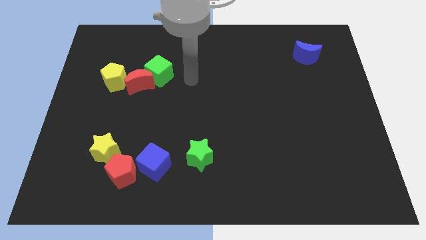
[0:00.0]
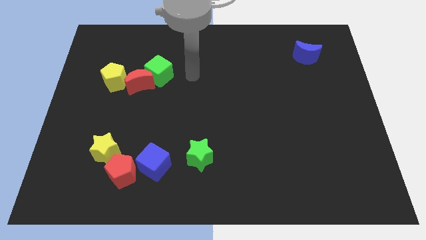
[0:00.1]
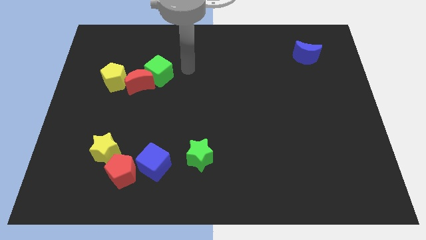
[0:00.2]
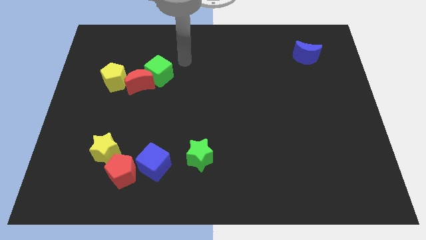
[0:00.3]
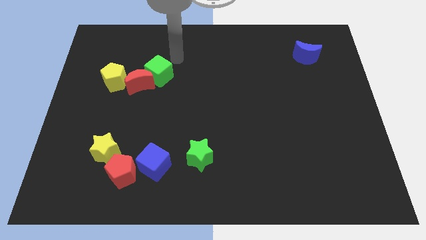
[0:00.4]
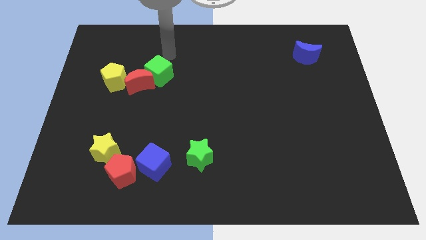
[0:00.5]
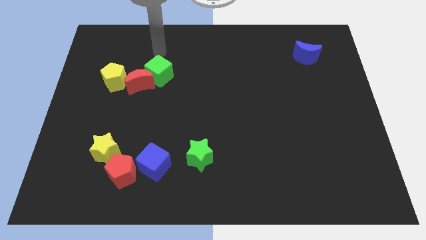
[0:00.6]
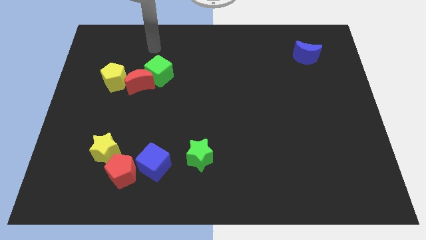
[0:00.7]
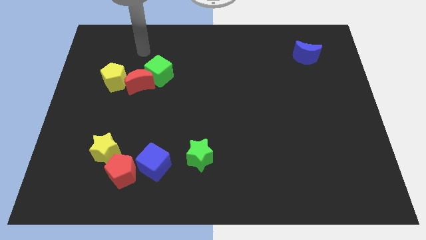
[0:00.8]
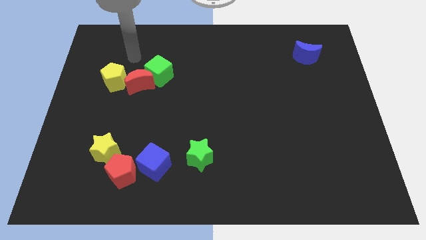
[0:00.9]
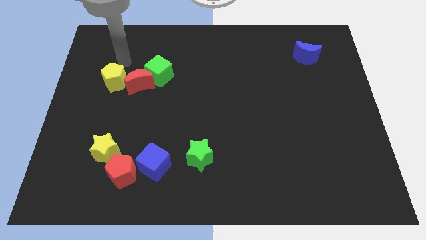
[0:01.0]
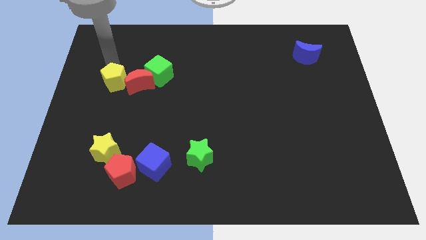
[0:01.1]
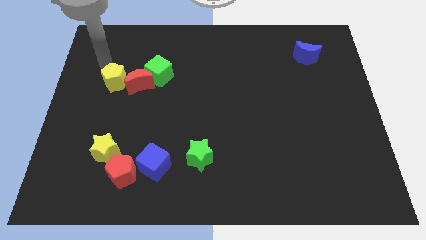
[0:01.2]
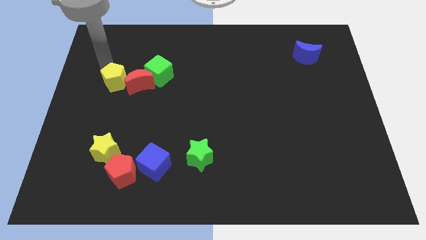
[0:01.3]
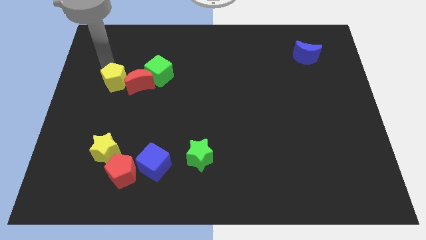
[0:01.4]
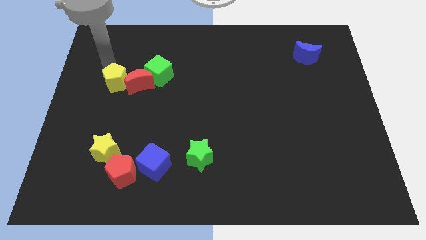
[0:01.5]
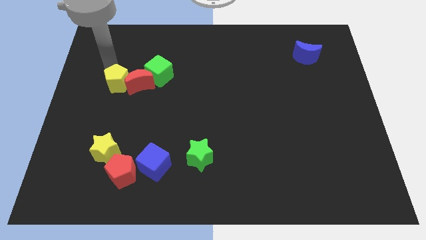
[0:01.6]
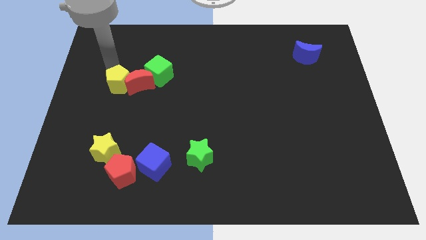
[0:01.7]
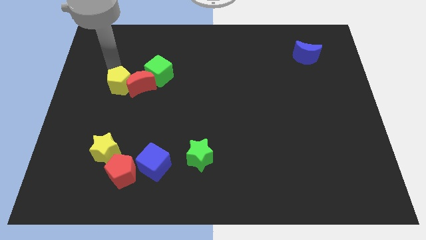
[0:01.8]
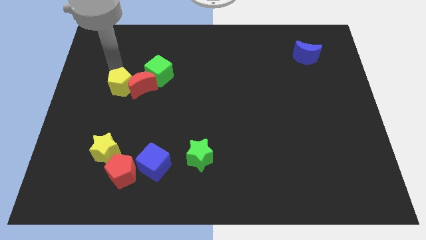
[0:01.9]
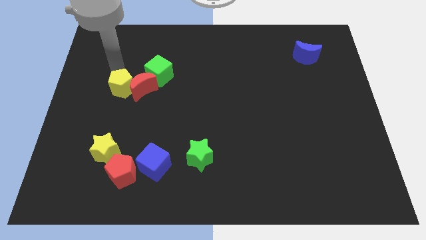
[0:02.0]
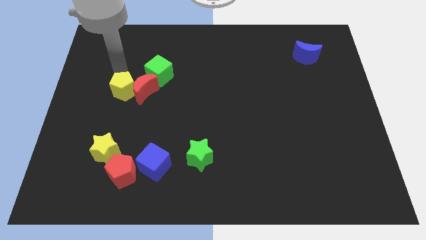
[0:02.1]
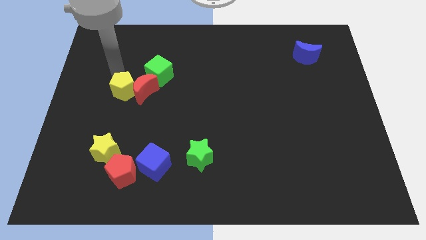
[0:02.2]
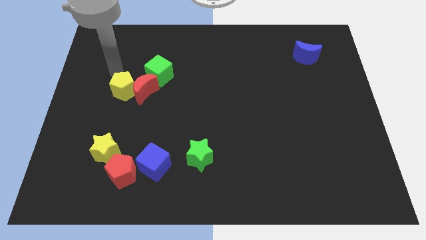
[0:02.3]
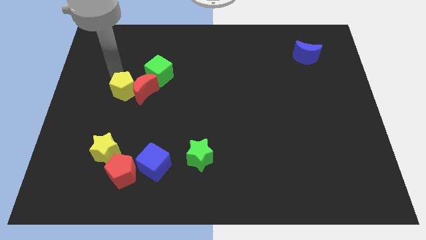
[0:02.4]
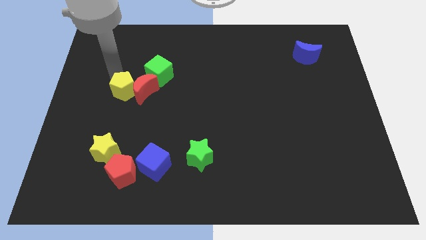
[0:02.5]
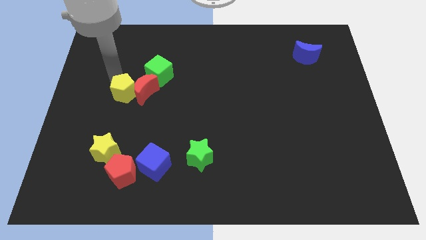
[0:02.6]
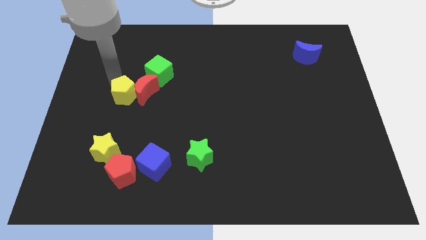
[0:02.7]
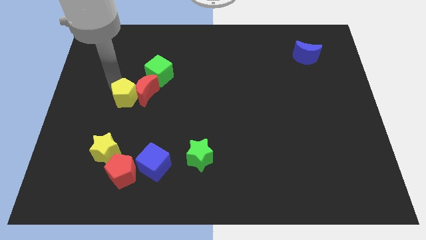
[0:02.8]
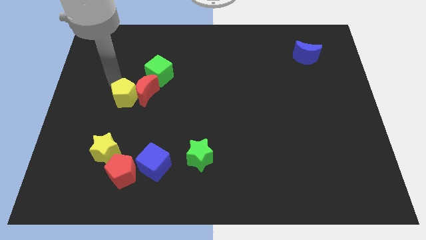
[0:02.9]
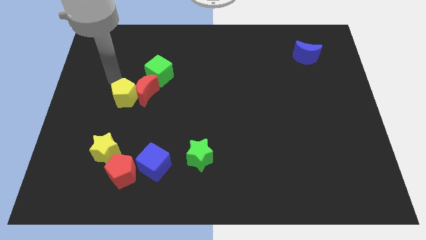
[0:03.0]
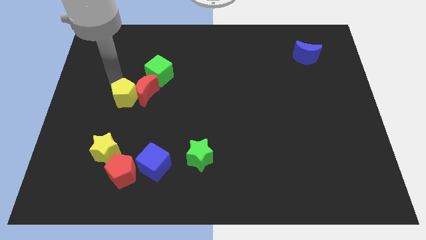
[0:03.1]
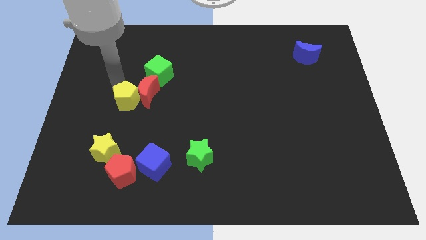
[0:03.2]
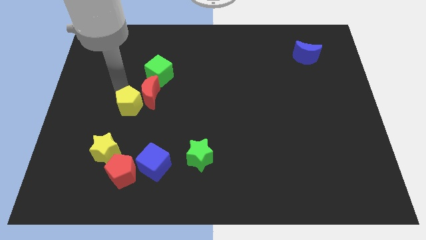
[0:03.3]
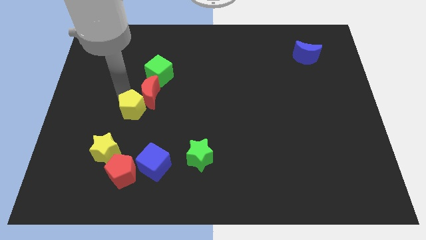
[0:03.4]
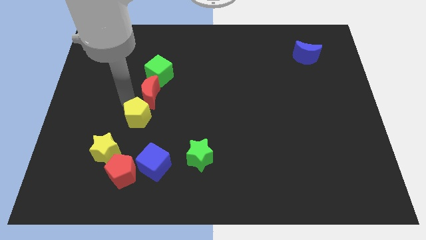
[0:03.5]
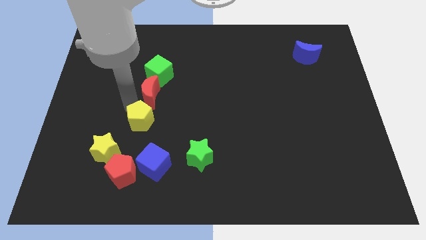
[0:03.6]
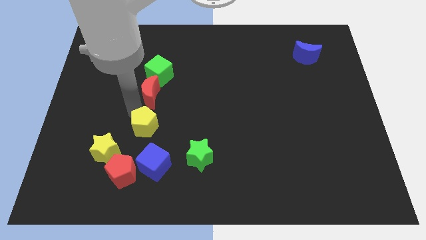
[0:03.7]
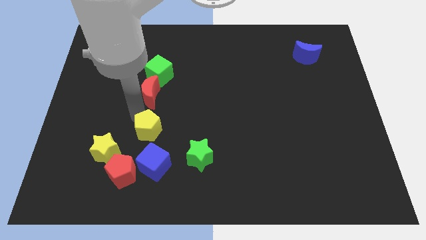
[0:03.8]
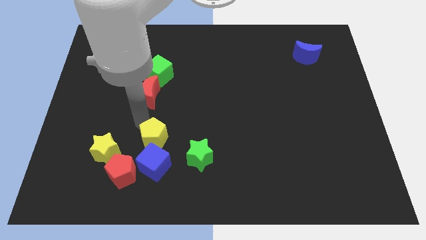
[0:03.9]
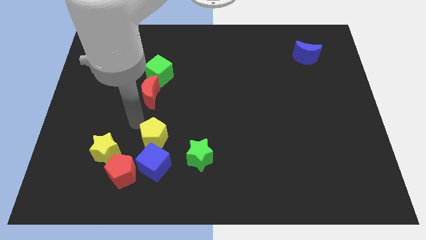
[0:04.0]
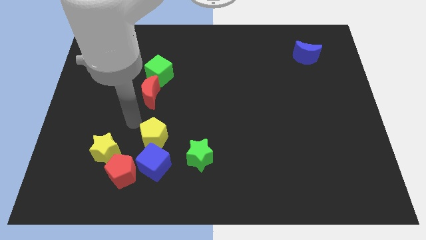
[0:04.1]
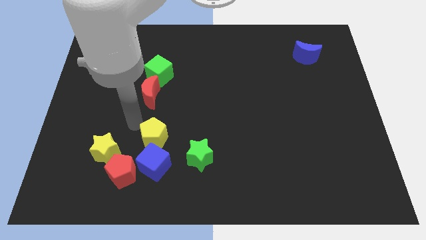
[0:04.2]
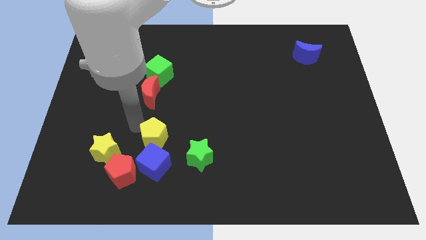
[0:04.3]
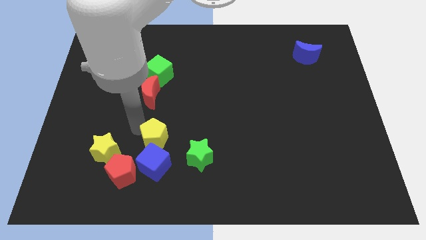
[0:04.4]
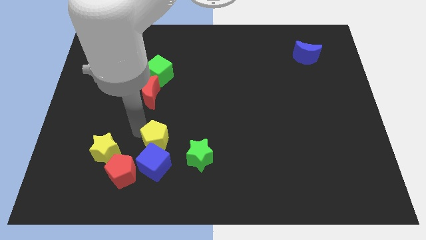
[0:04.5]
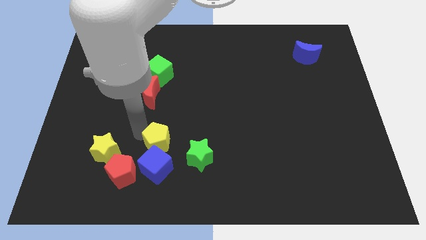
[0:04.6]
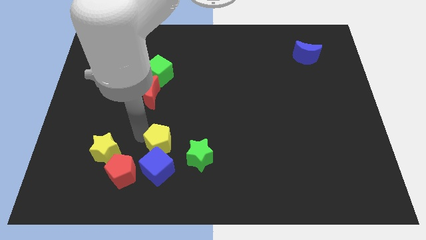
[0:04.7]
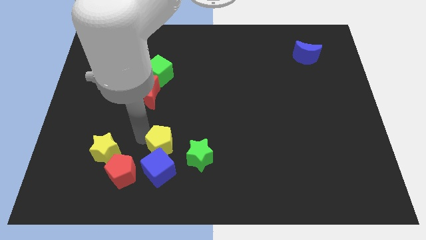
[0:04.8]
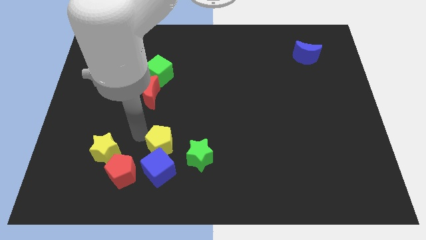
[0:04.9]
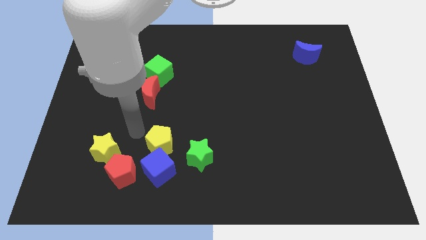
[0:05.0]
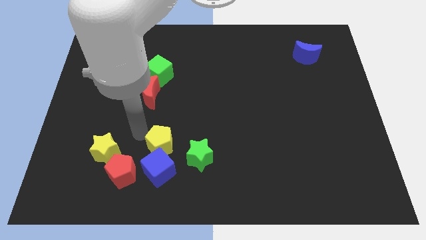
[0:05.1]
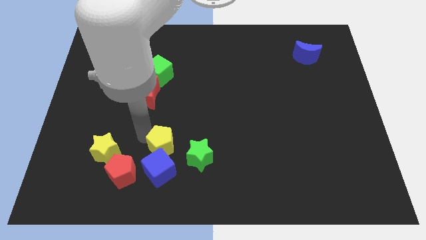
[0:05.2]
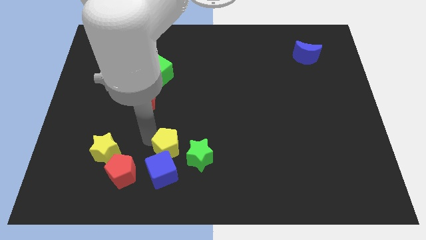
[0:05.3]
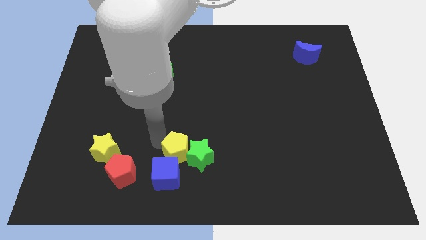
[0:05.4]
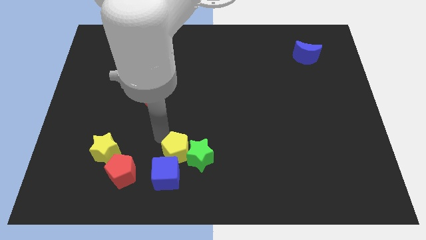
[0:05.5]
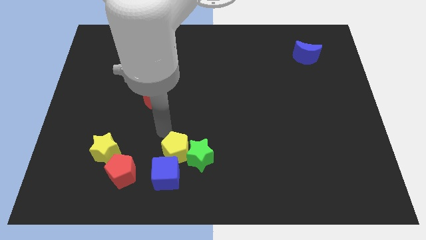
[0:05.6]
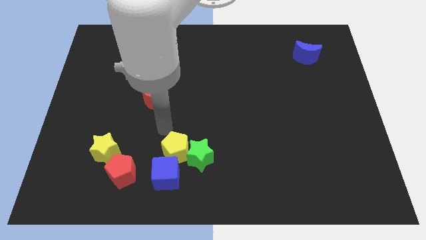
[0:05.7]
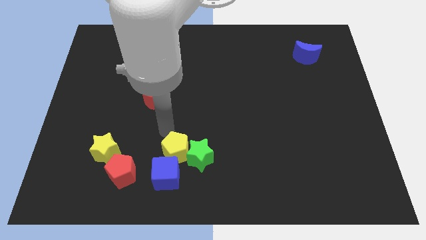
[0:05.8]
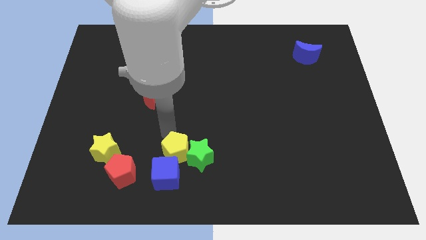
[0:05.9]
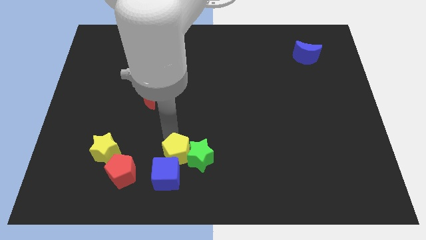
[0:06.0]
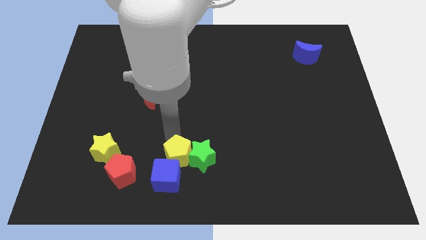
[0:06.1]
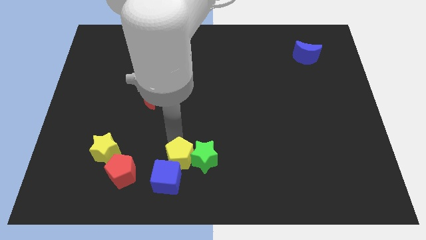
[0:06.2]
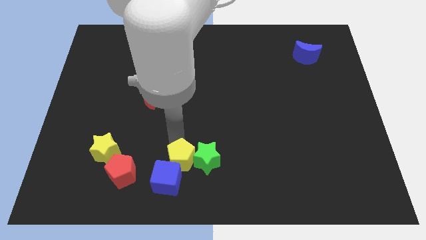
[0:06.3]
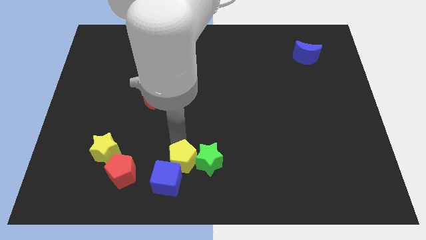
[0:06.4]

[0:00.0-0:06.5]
move the yellow pentagon to the bottom
